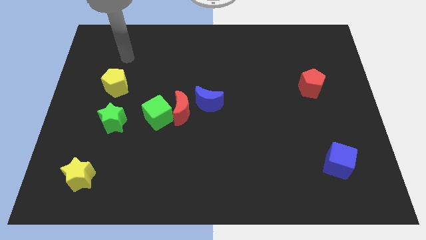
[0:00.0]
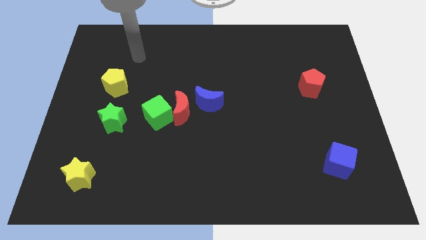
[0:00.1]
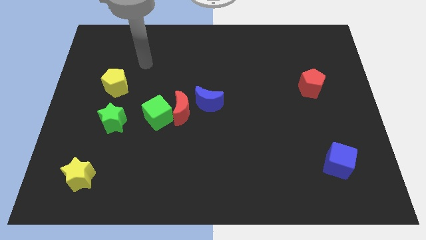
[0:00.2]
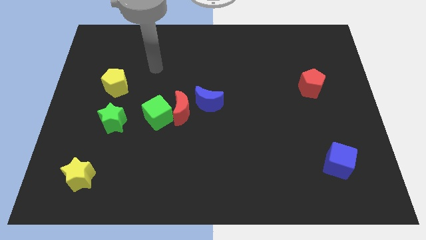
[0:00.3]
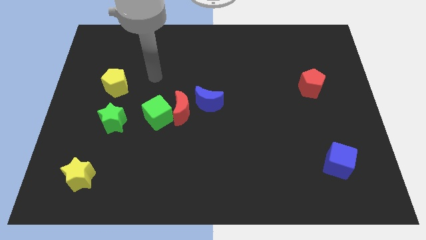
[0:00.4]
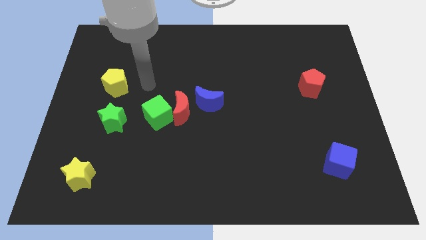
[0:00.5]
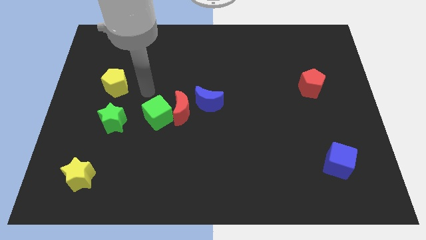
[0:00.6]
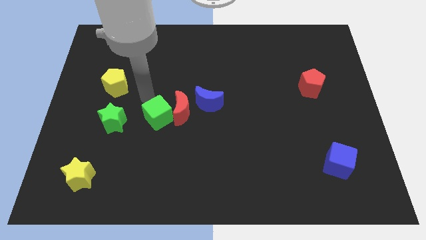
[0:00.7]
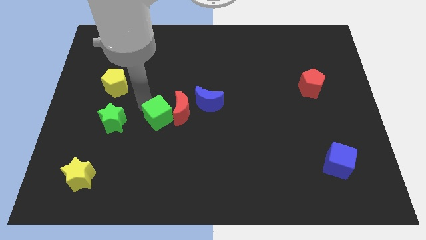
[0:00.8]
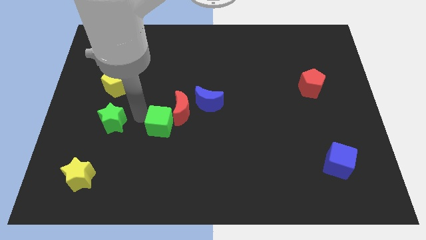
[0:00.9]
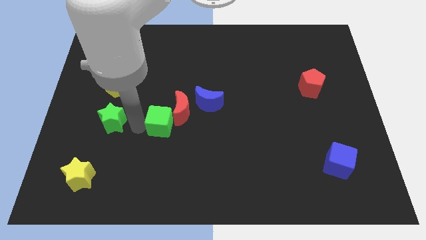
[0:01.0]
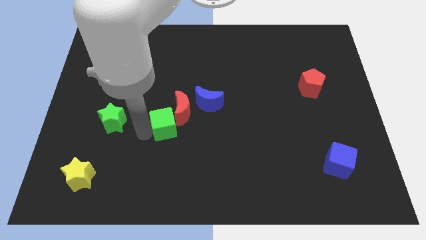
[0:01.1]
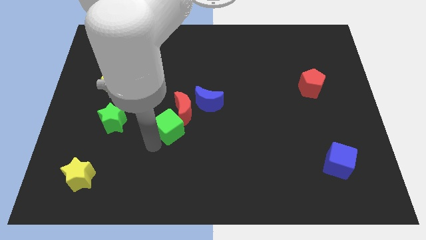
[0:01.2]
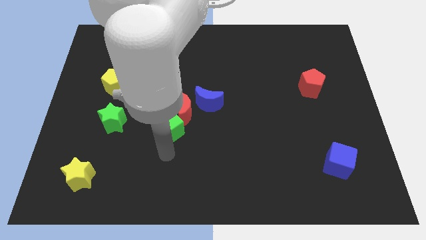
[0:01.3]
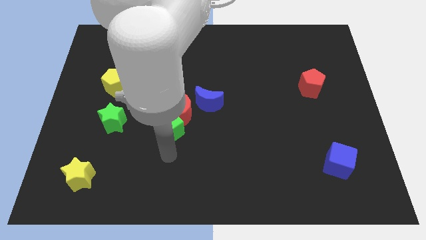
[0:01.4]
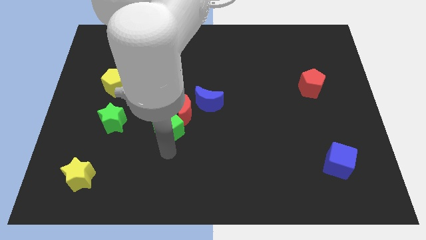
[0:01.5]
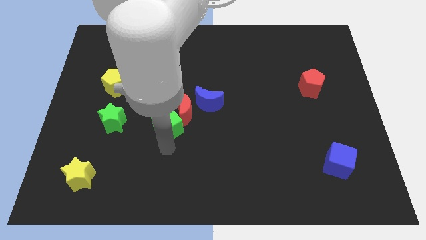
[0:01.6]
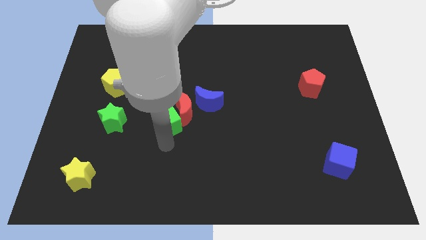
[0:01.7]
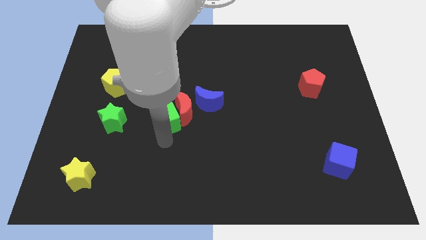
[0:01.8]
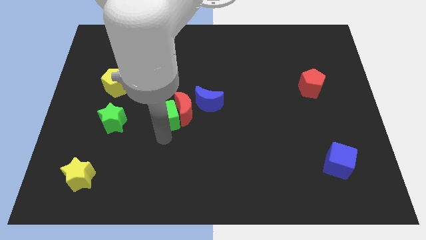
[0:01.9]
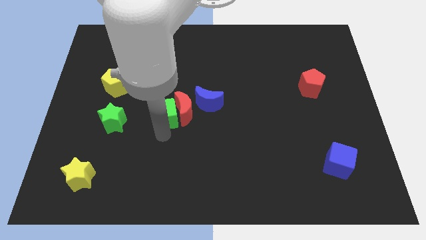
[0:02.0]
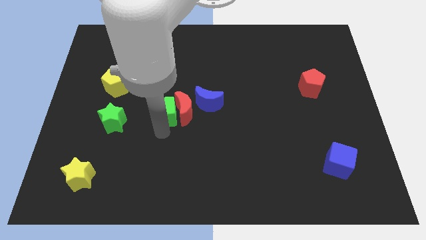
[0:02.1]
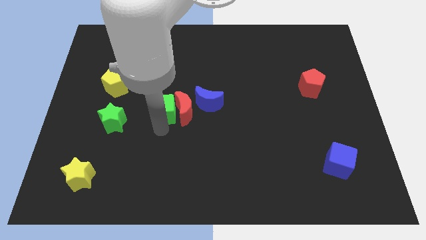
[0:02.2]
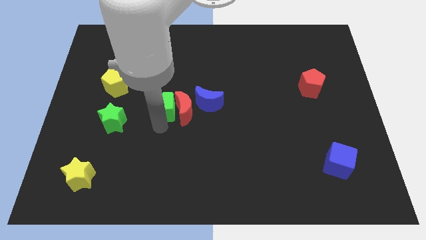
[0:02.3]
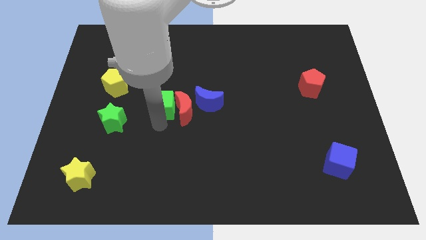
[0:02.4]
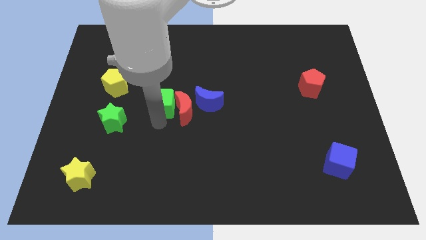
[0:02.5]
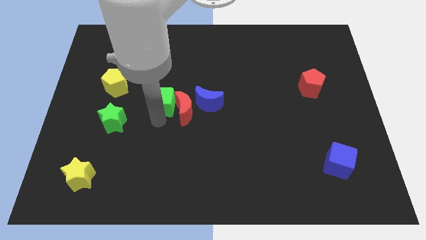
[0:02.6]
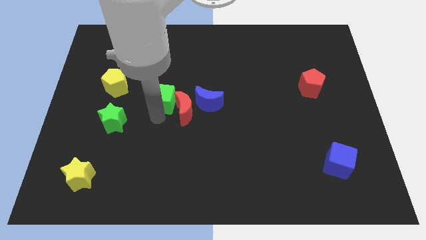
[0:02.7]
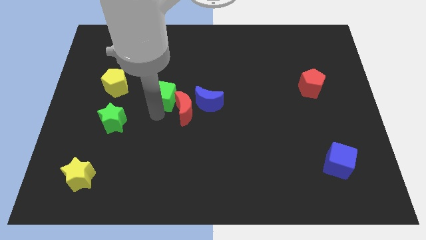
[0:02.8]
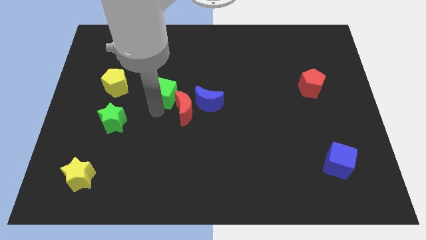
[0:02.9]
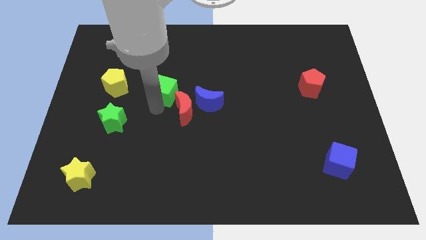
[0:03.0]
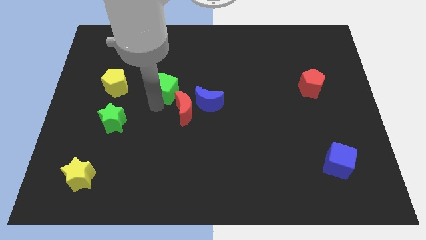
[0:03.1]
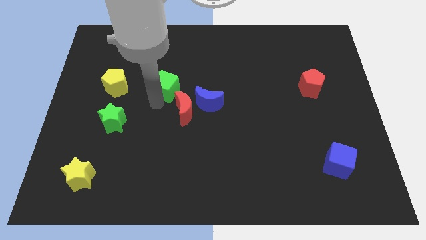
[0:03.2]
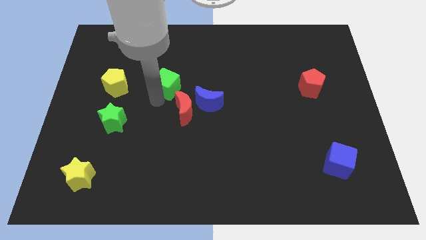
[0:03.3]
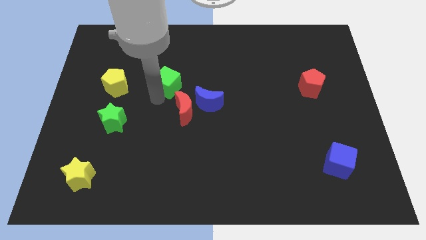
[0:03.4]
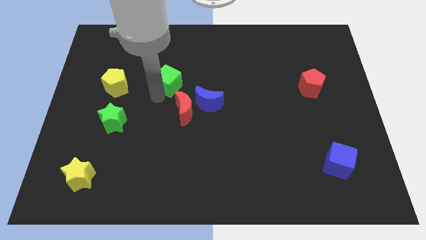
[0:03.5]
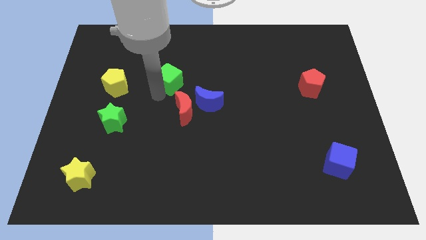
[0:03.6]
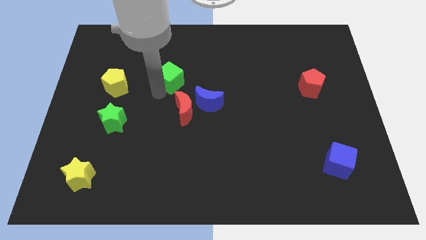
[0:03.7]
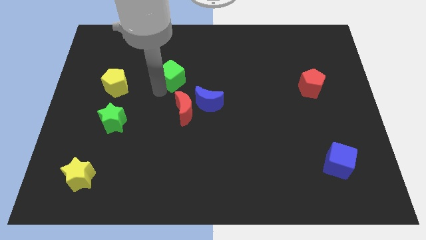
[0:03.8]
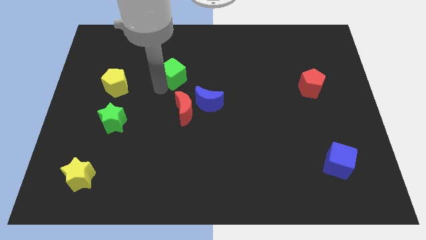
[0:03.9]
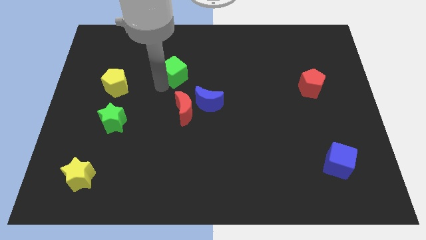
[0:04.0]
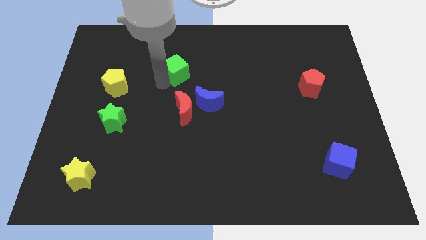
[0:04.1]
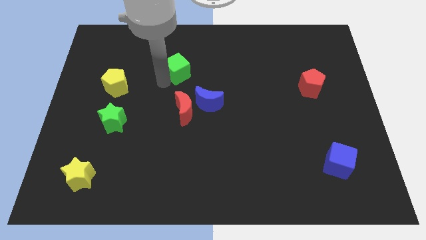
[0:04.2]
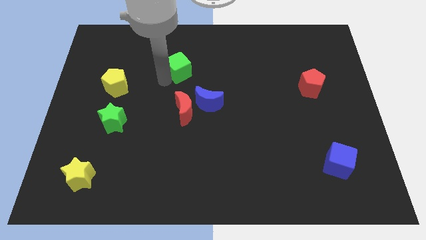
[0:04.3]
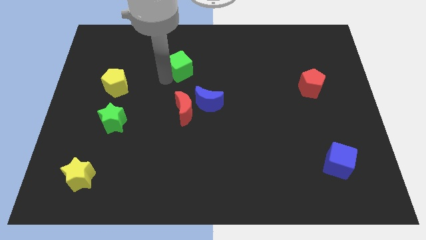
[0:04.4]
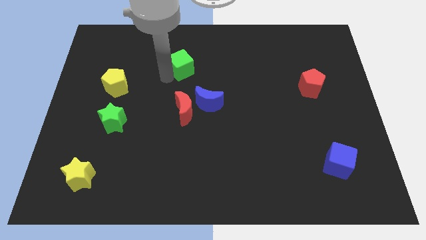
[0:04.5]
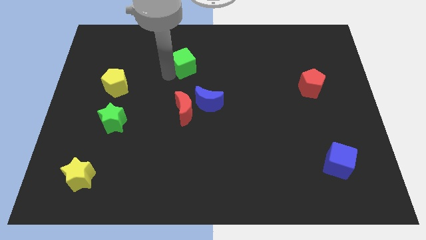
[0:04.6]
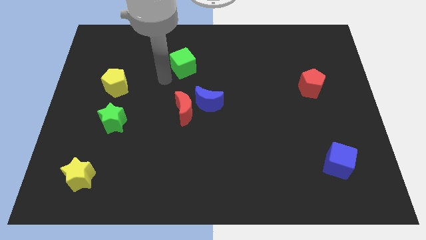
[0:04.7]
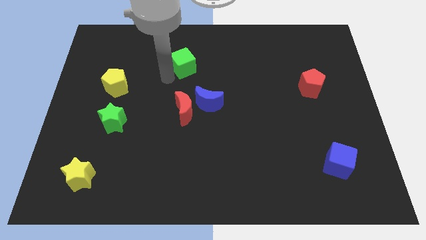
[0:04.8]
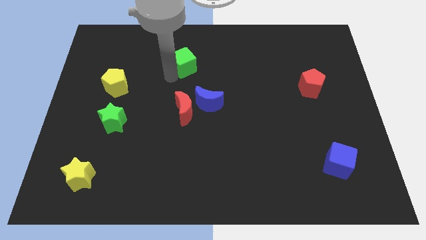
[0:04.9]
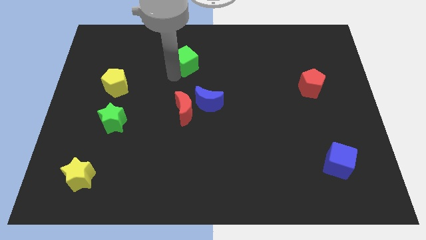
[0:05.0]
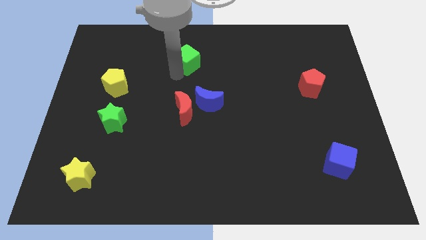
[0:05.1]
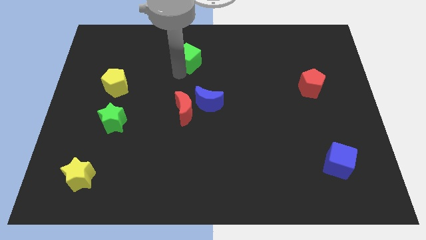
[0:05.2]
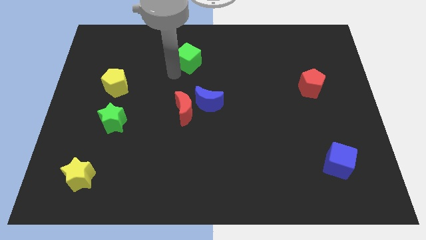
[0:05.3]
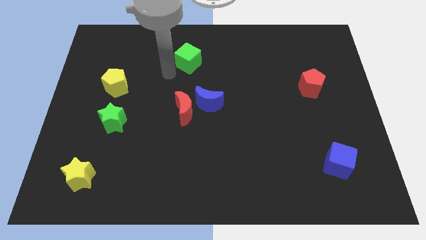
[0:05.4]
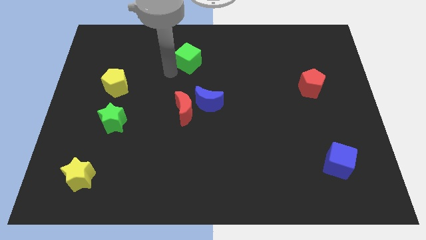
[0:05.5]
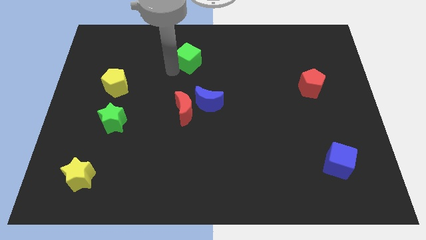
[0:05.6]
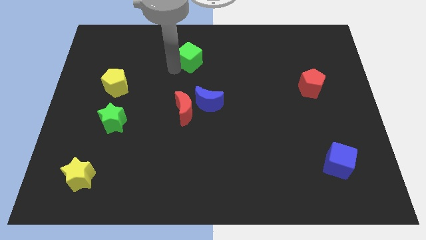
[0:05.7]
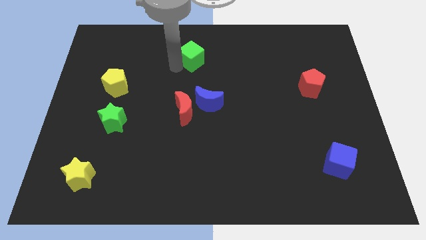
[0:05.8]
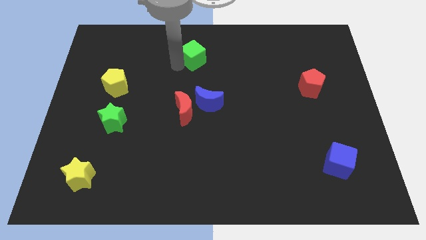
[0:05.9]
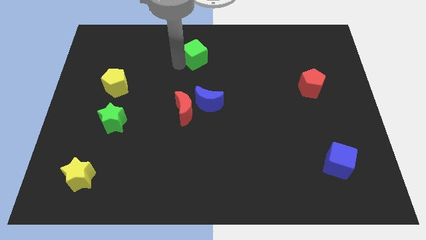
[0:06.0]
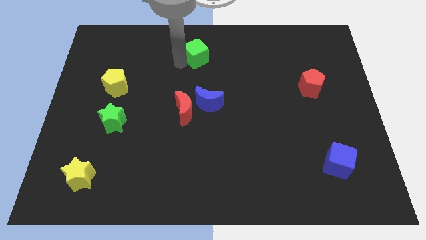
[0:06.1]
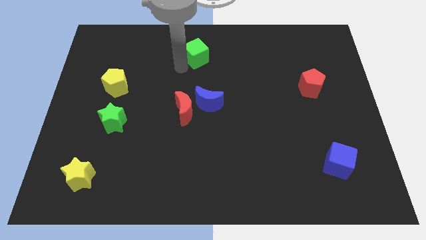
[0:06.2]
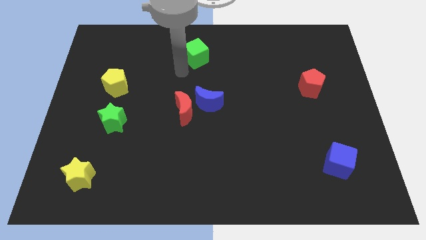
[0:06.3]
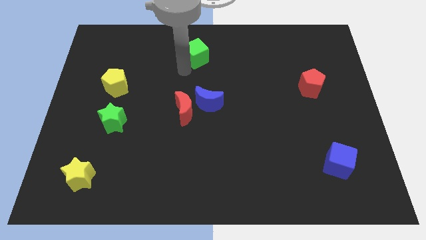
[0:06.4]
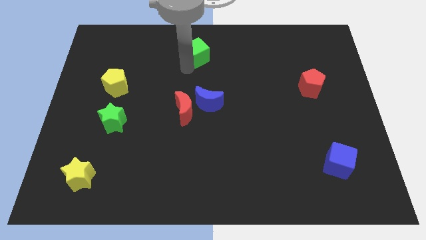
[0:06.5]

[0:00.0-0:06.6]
slide the green cube to the towards your base

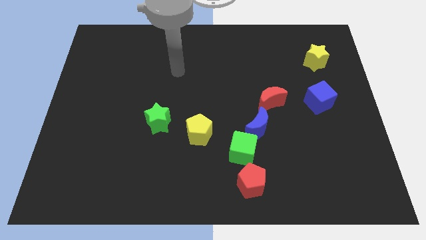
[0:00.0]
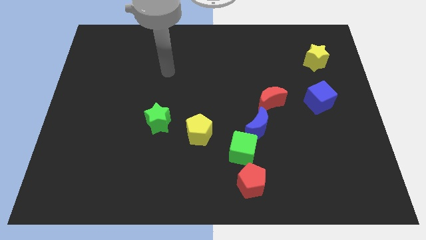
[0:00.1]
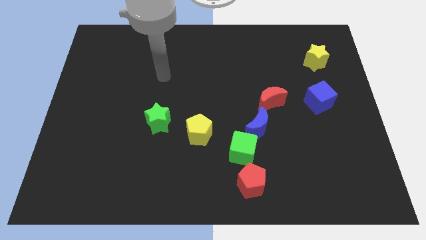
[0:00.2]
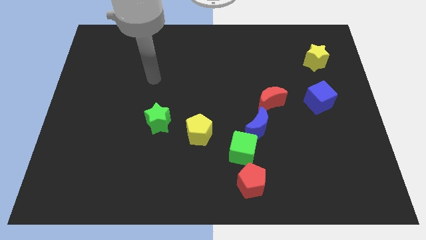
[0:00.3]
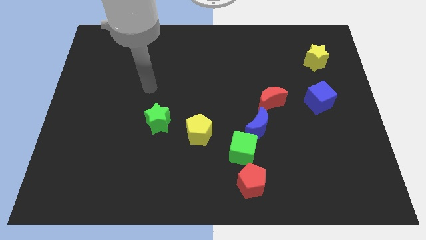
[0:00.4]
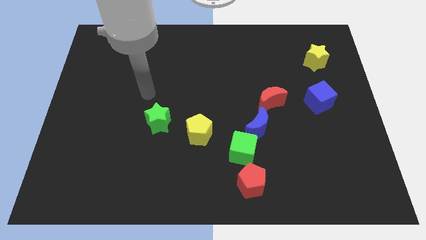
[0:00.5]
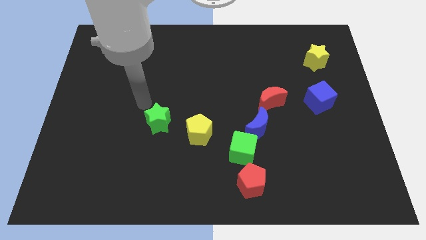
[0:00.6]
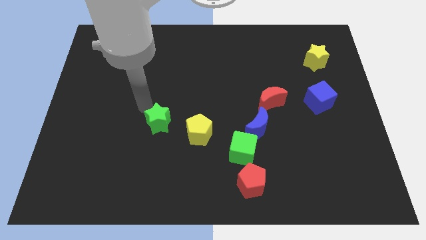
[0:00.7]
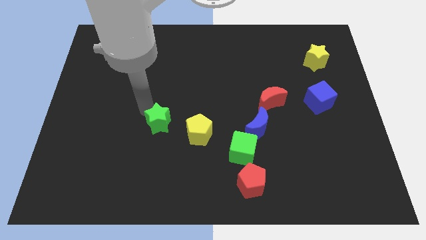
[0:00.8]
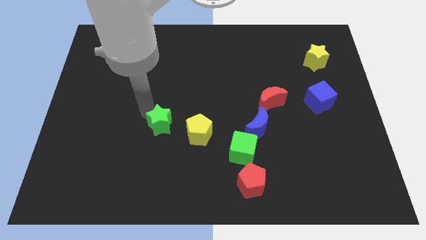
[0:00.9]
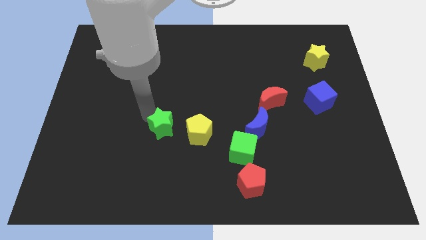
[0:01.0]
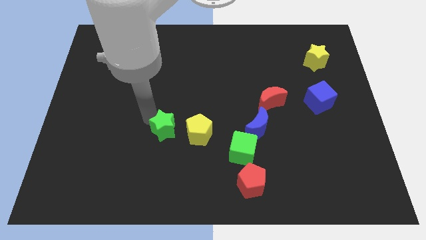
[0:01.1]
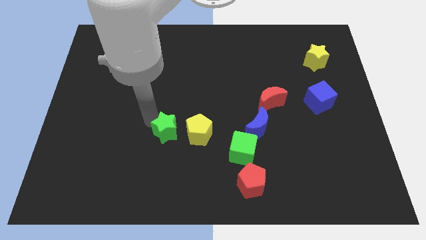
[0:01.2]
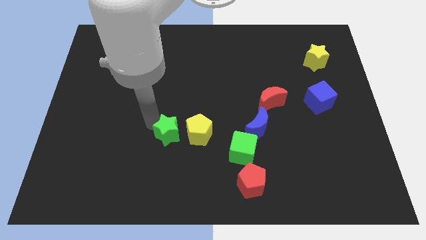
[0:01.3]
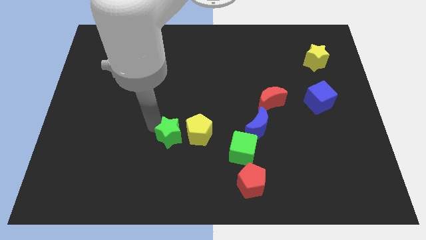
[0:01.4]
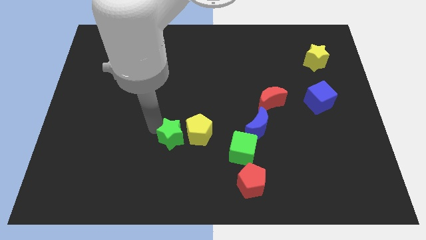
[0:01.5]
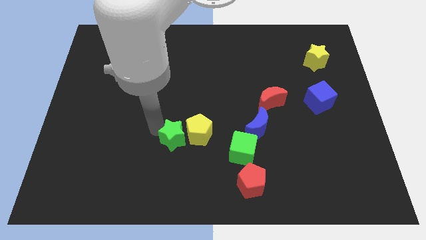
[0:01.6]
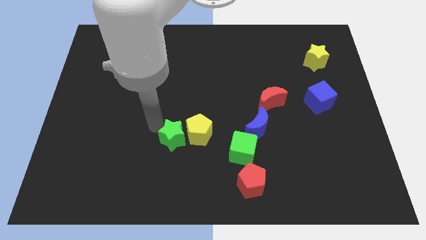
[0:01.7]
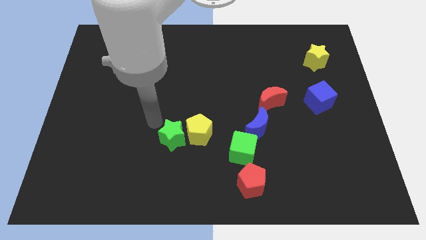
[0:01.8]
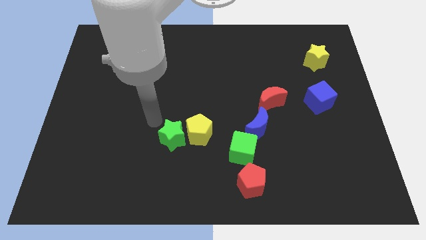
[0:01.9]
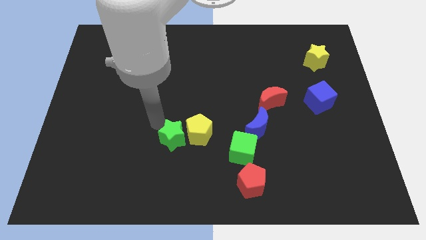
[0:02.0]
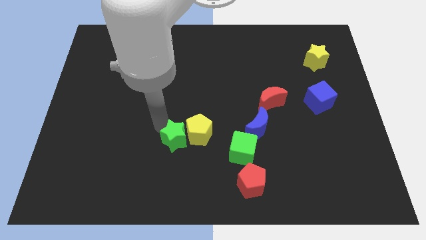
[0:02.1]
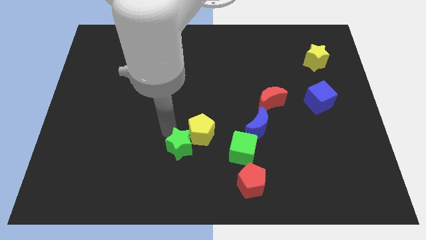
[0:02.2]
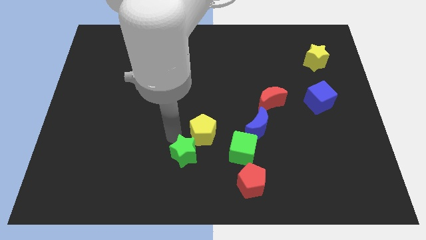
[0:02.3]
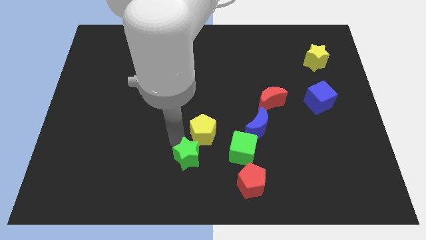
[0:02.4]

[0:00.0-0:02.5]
put the green star to the bottom side
